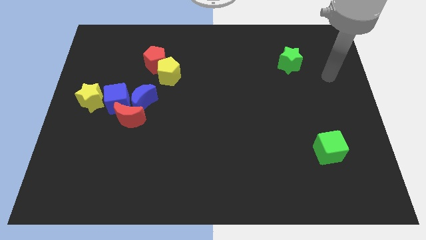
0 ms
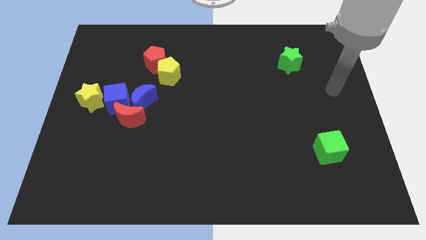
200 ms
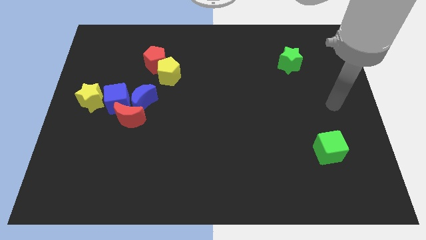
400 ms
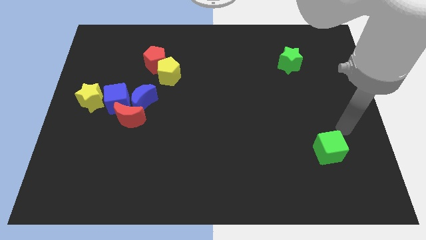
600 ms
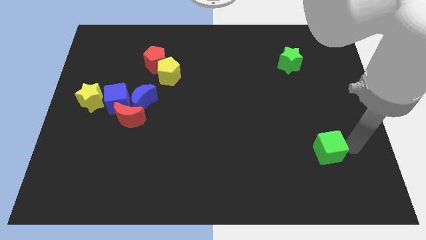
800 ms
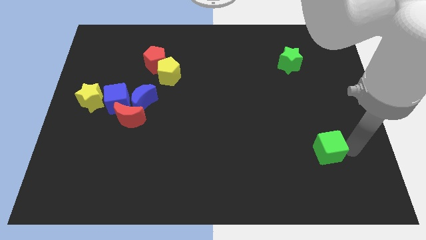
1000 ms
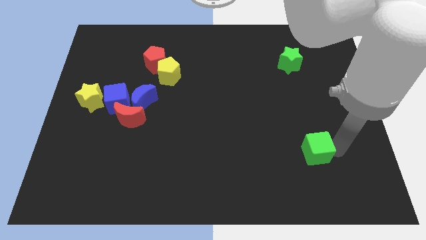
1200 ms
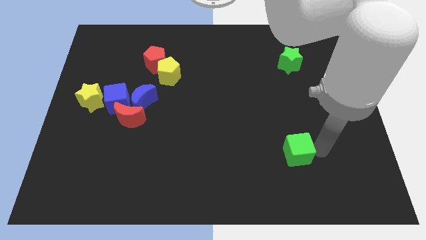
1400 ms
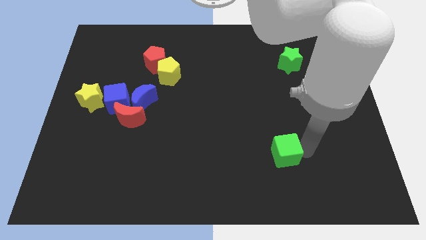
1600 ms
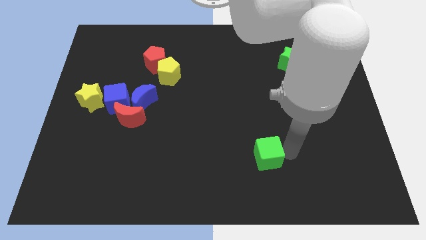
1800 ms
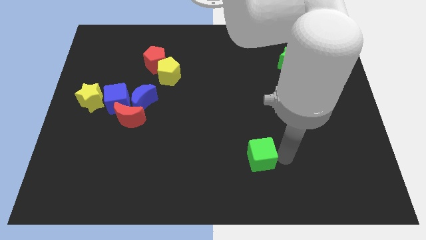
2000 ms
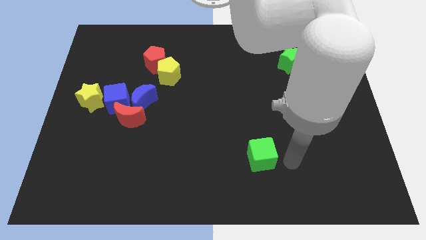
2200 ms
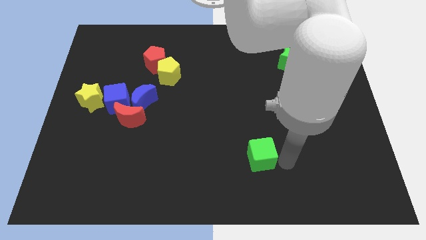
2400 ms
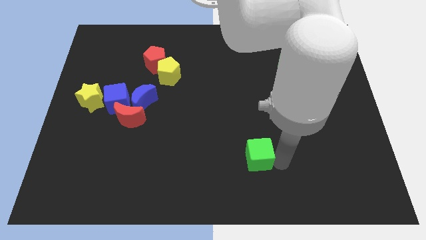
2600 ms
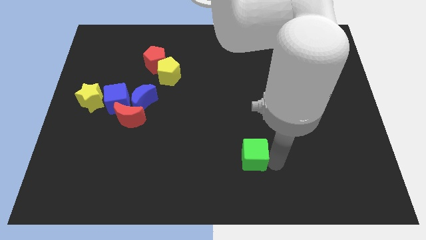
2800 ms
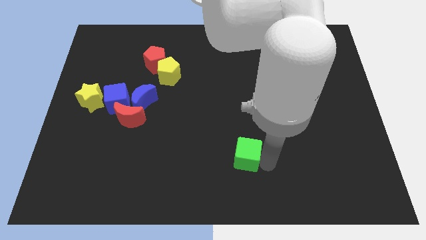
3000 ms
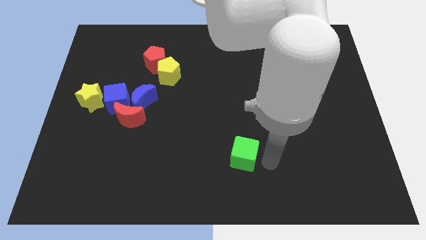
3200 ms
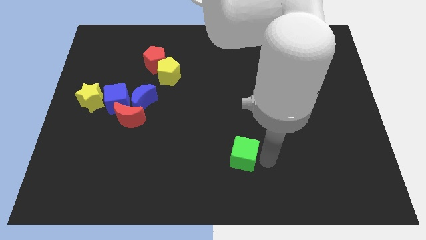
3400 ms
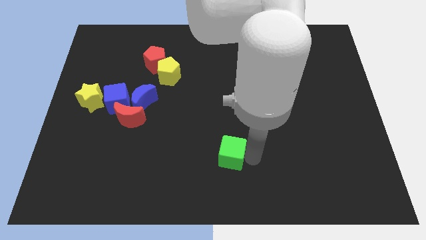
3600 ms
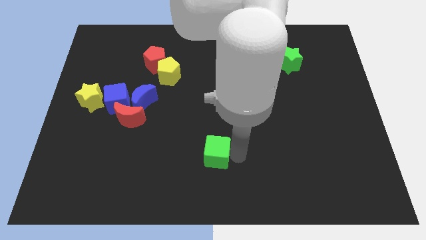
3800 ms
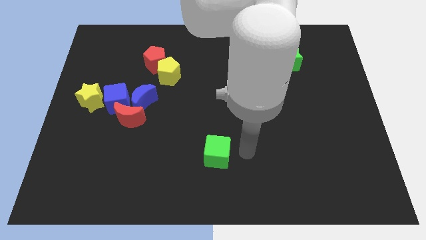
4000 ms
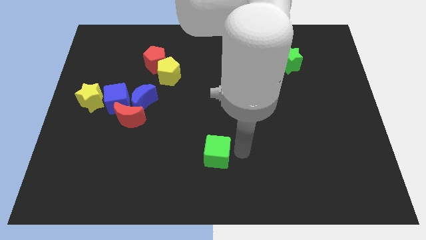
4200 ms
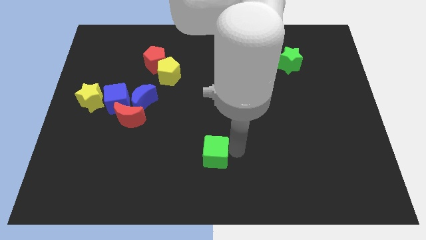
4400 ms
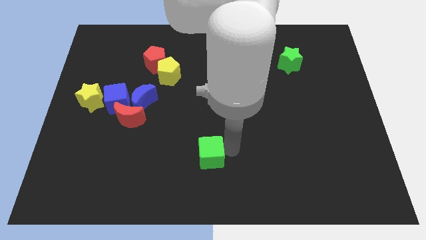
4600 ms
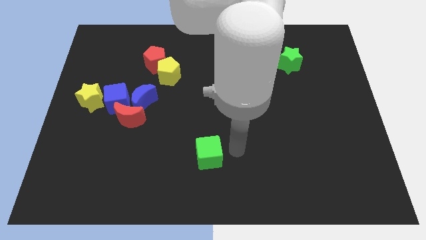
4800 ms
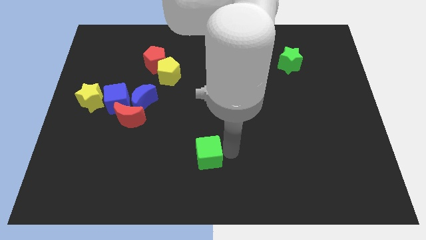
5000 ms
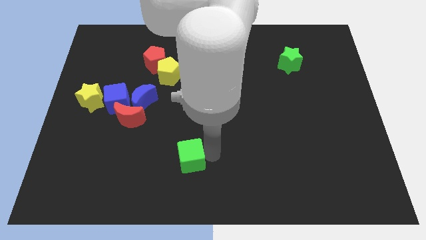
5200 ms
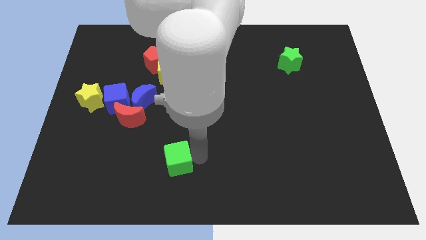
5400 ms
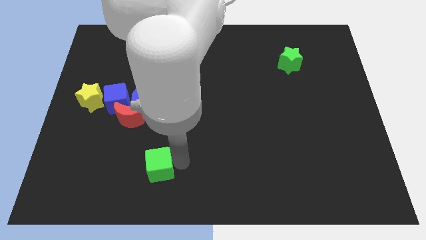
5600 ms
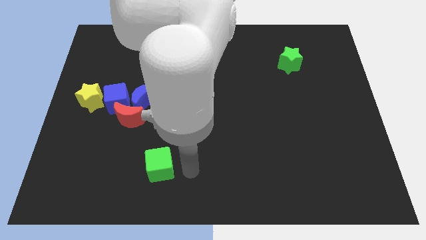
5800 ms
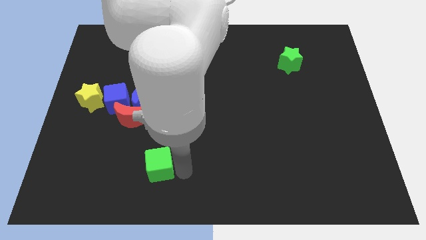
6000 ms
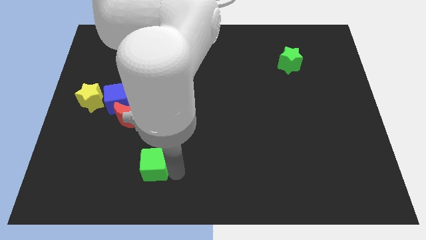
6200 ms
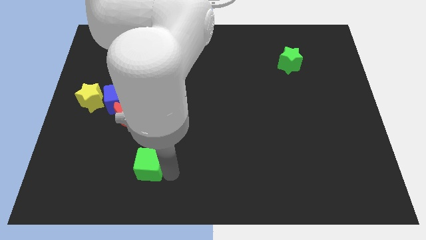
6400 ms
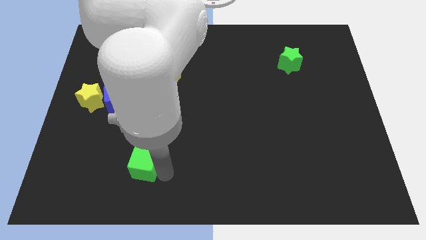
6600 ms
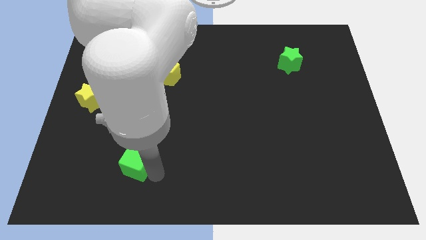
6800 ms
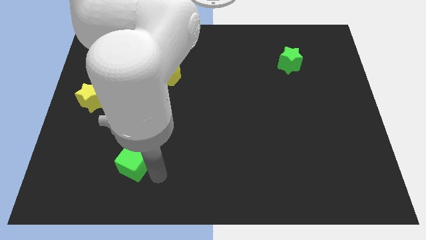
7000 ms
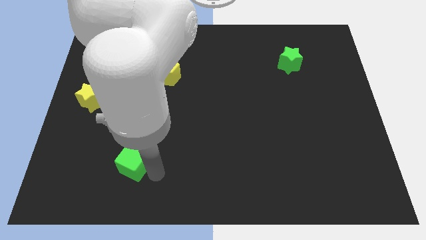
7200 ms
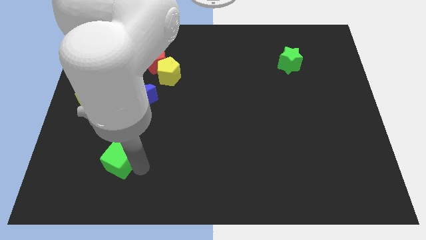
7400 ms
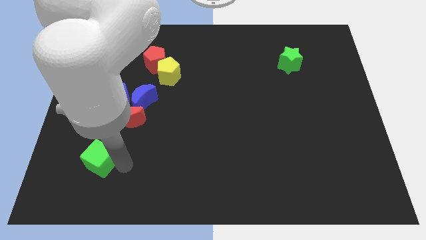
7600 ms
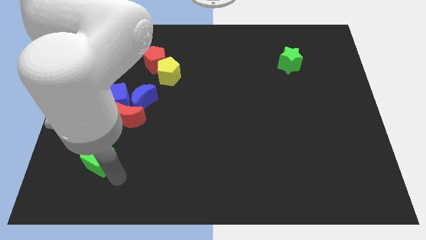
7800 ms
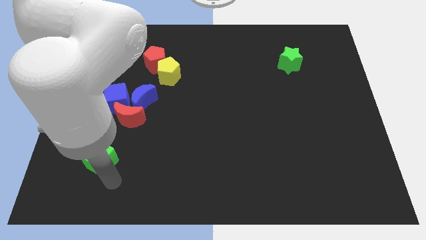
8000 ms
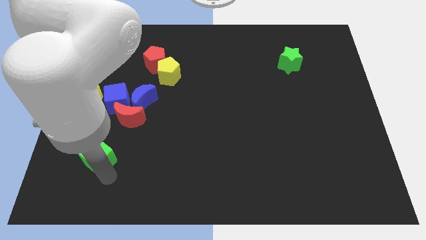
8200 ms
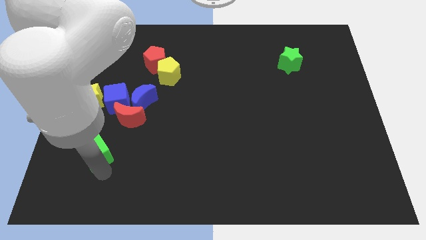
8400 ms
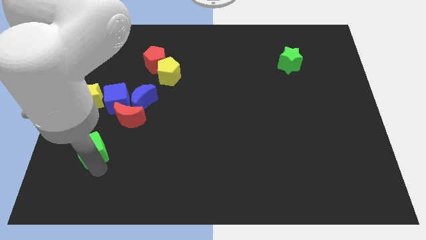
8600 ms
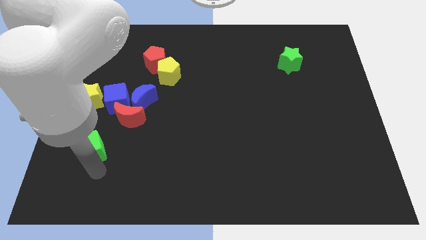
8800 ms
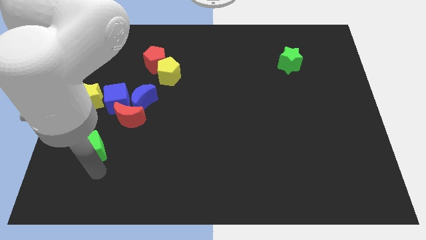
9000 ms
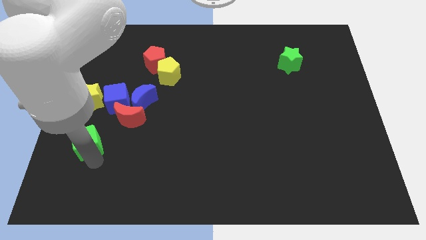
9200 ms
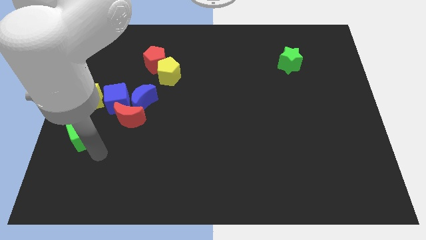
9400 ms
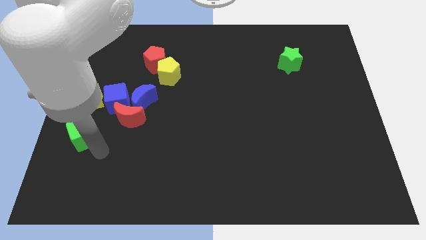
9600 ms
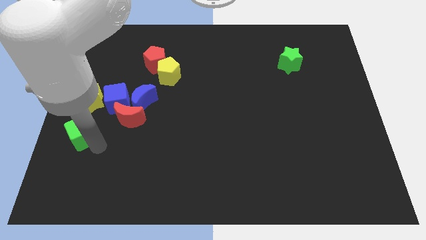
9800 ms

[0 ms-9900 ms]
move the green cube to the left side of the board

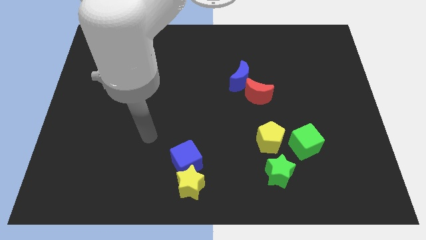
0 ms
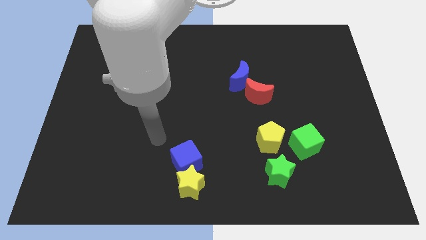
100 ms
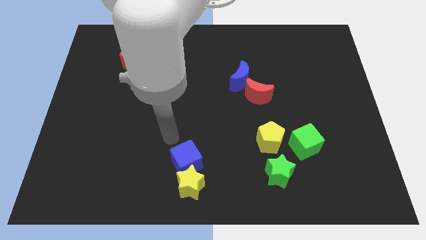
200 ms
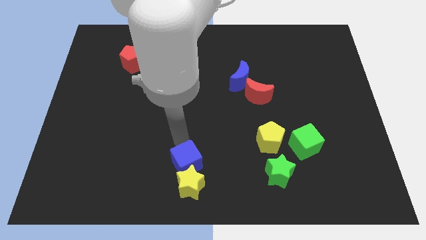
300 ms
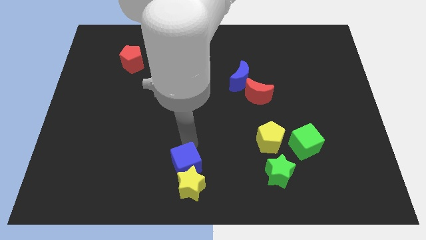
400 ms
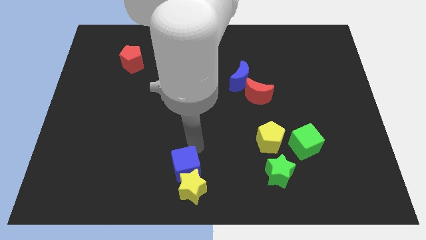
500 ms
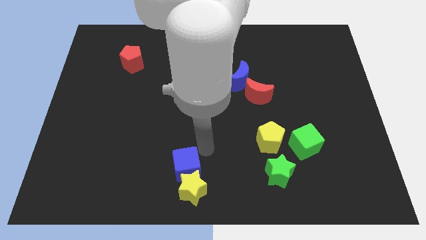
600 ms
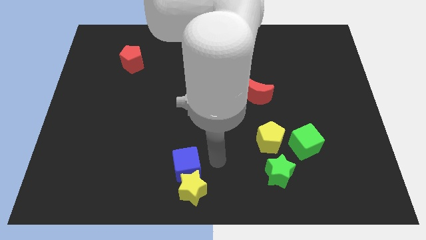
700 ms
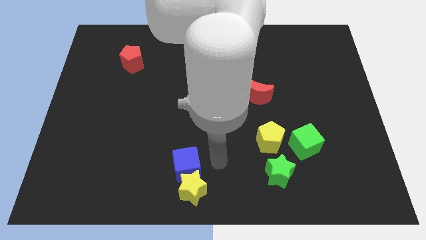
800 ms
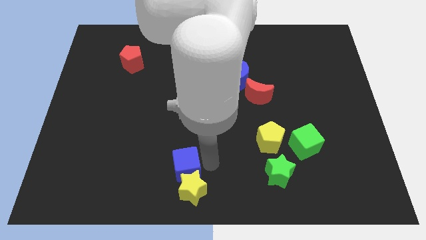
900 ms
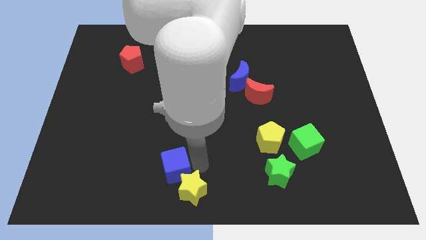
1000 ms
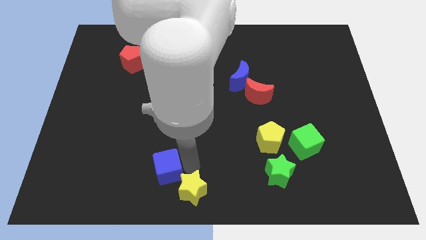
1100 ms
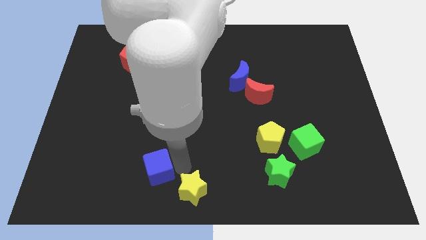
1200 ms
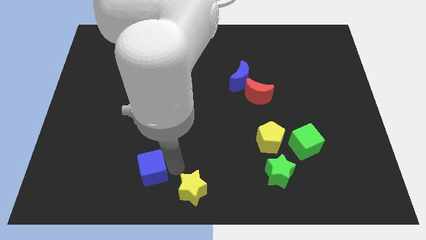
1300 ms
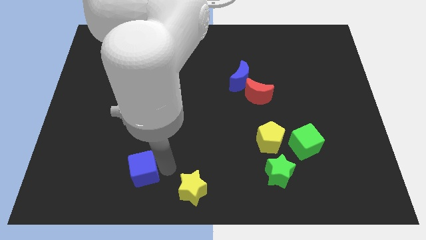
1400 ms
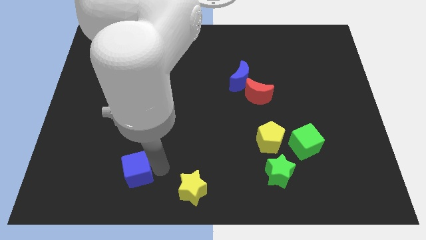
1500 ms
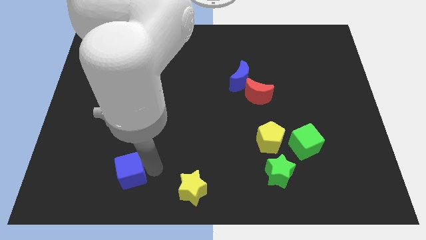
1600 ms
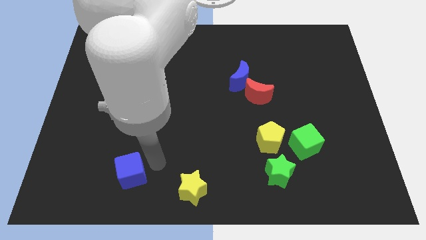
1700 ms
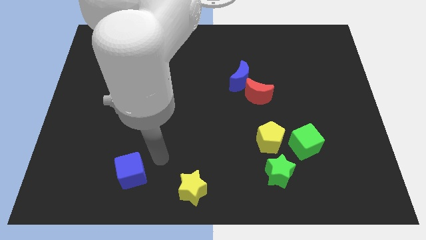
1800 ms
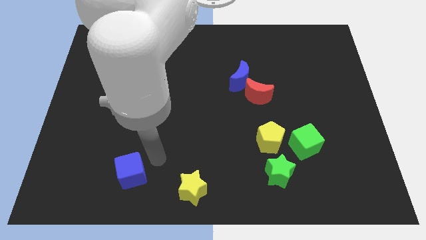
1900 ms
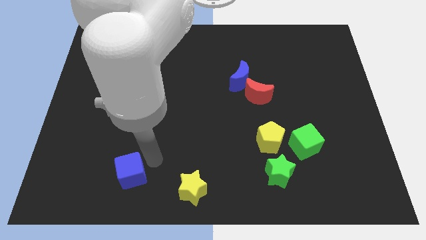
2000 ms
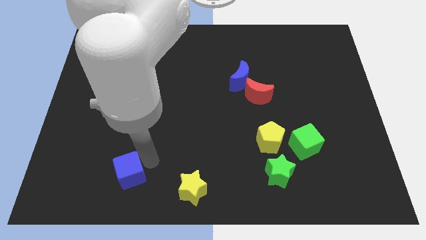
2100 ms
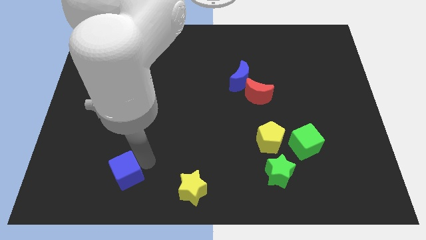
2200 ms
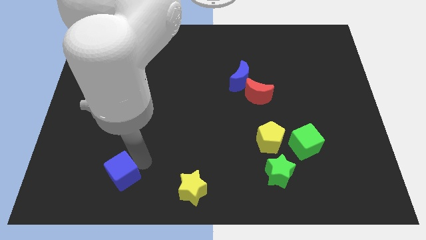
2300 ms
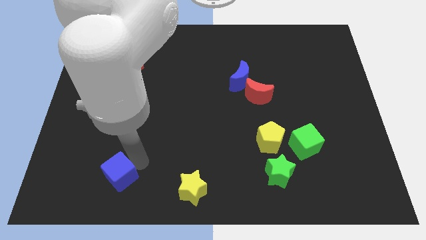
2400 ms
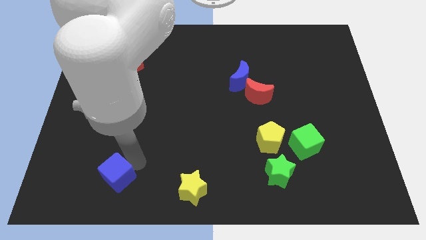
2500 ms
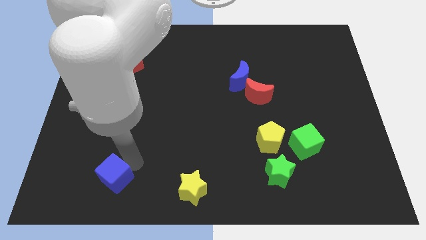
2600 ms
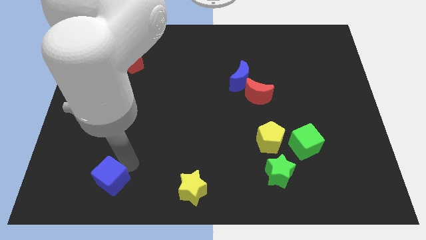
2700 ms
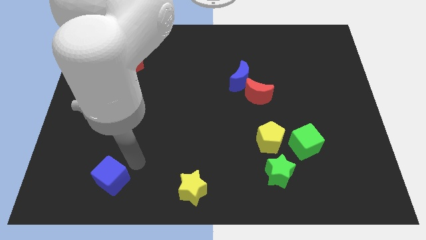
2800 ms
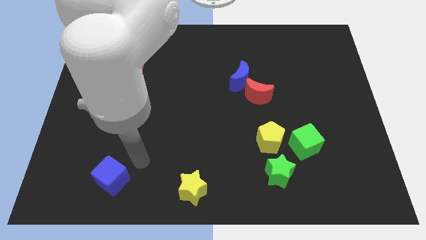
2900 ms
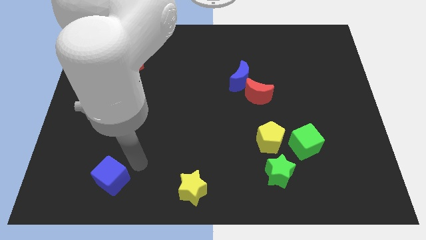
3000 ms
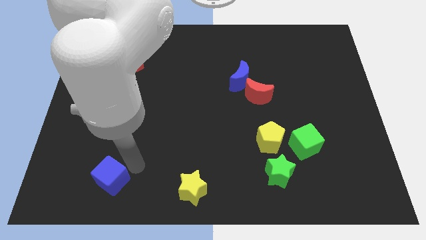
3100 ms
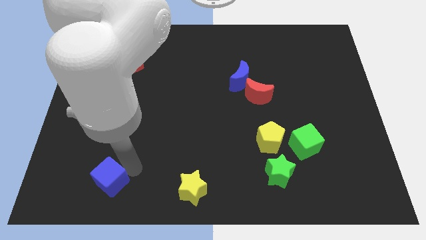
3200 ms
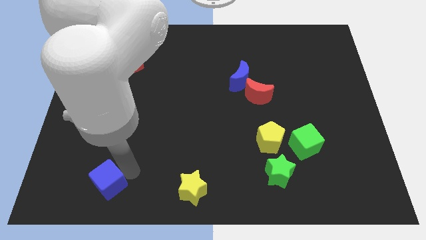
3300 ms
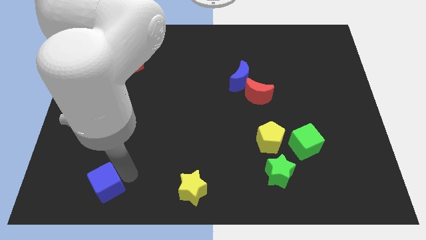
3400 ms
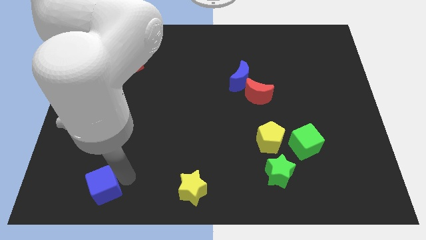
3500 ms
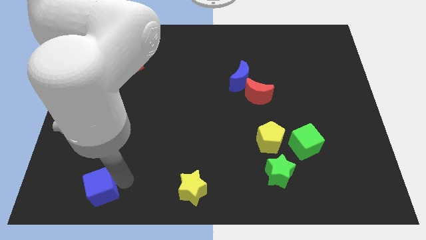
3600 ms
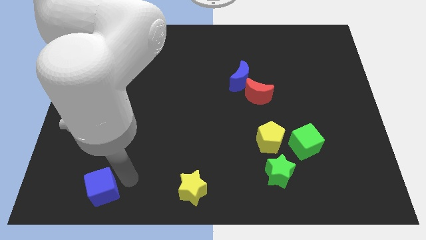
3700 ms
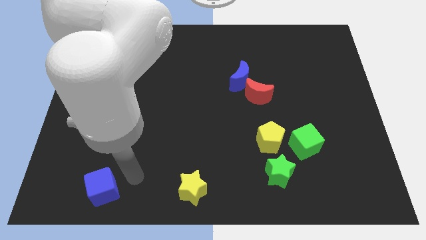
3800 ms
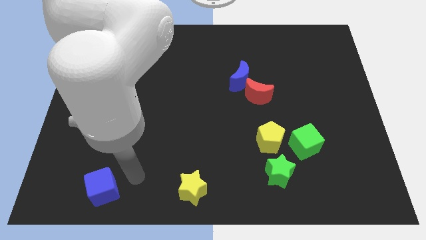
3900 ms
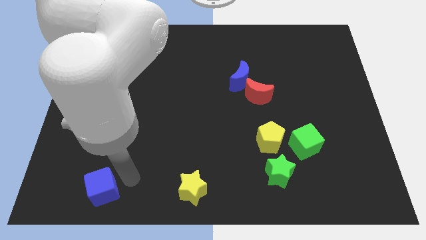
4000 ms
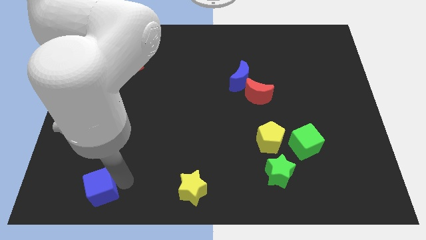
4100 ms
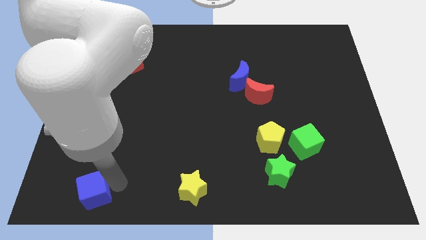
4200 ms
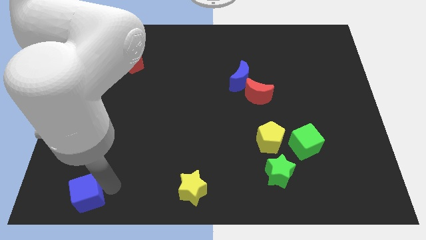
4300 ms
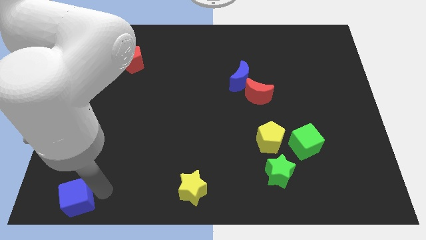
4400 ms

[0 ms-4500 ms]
move the blue cube to the bottom left corner
